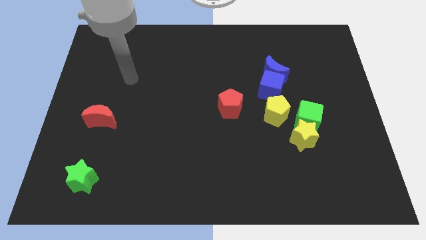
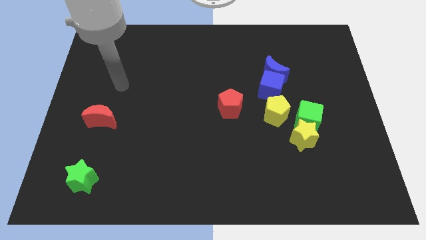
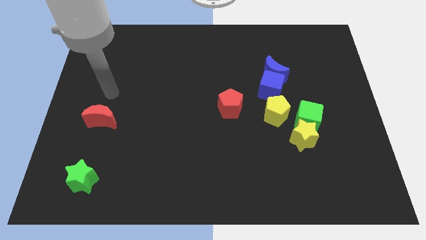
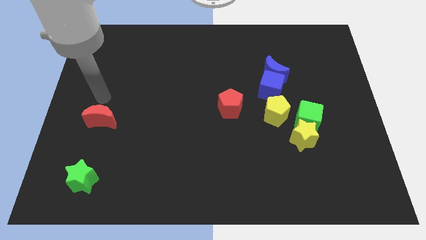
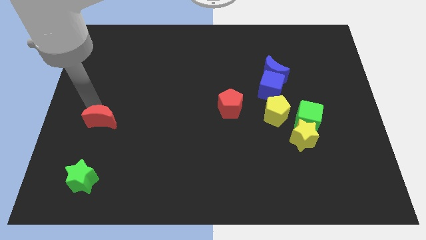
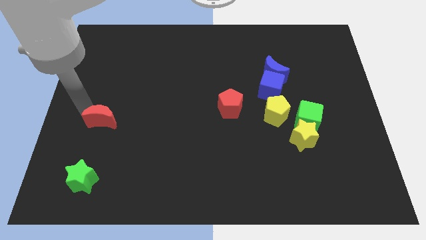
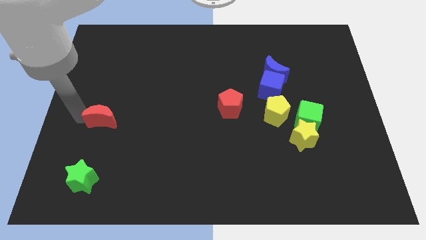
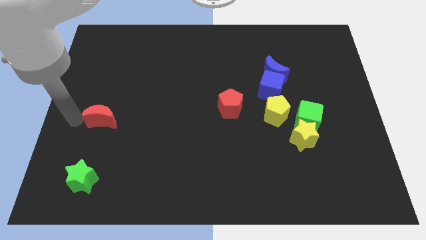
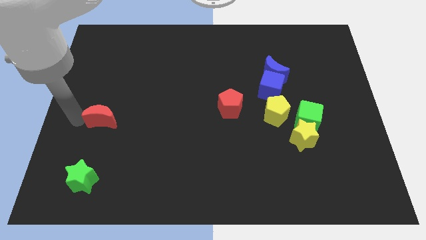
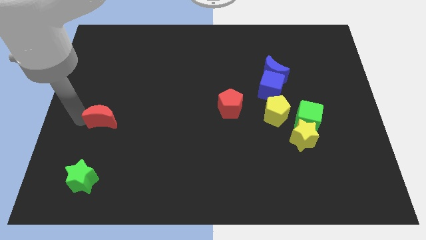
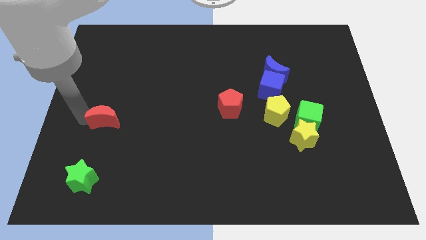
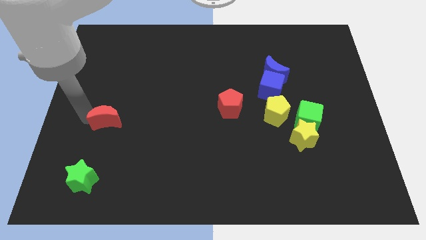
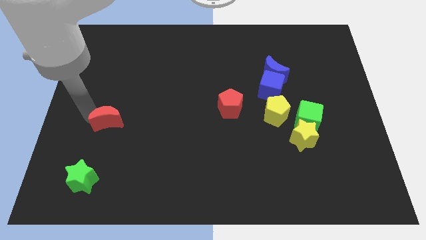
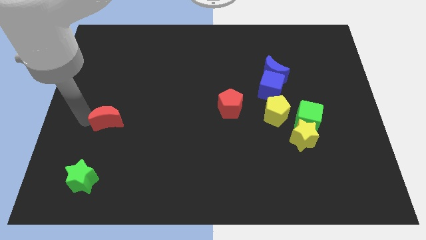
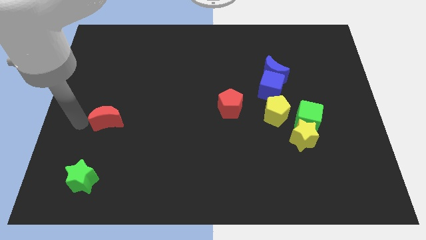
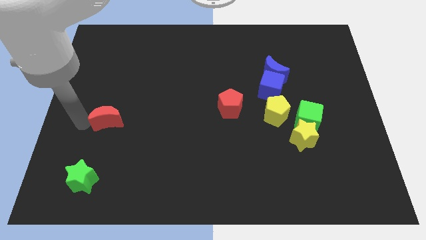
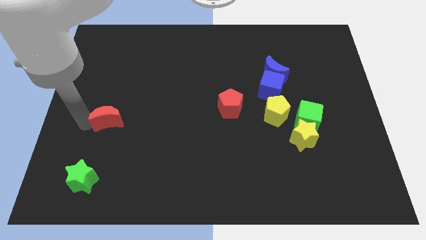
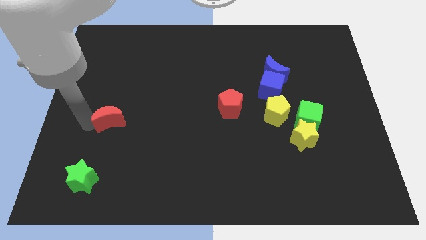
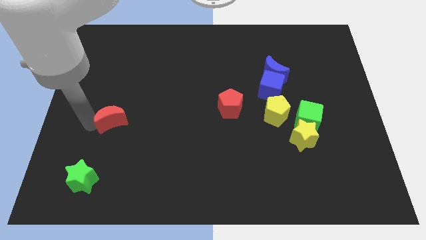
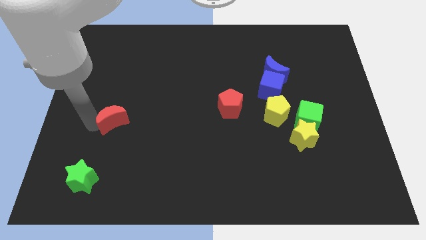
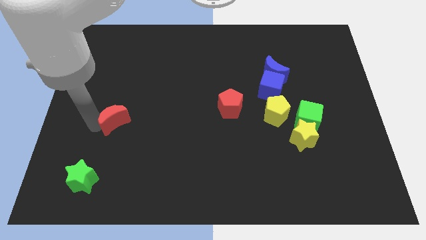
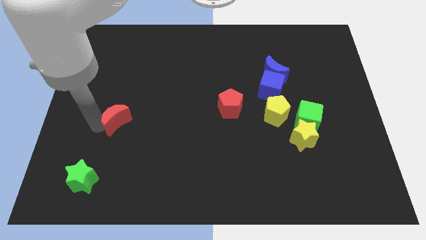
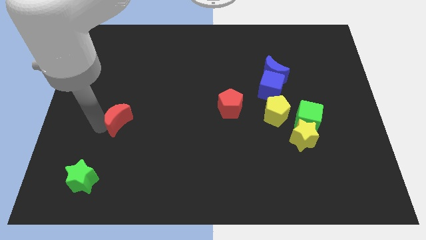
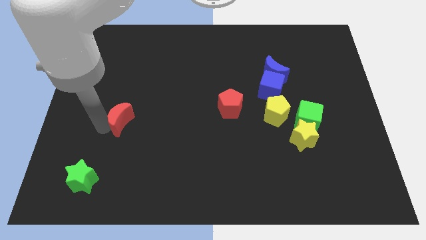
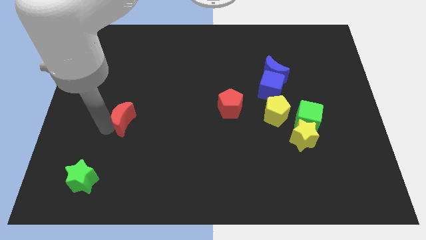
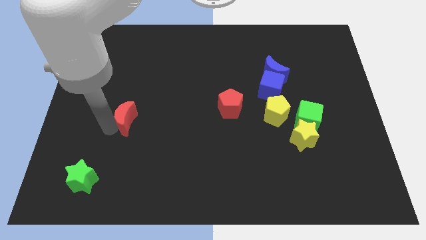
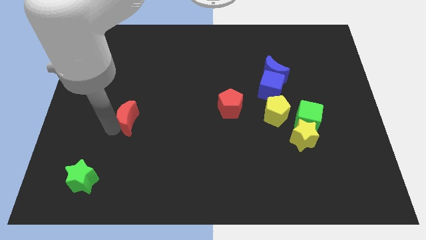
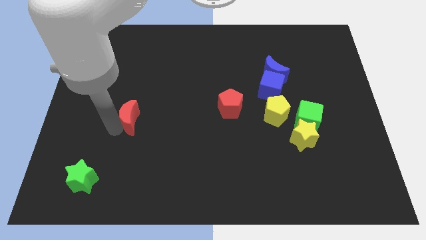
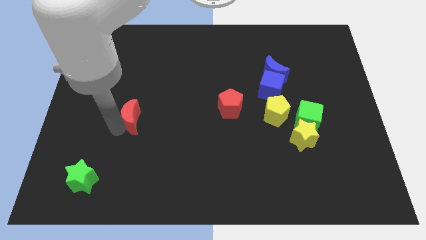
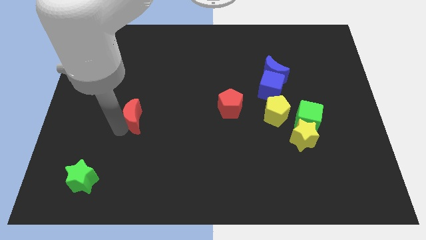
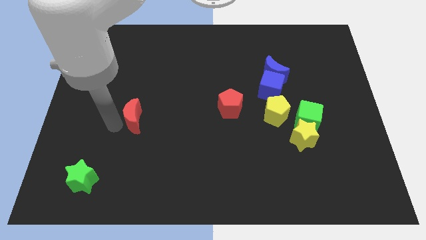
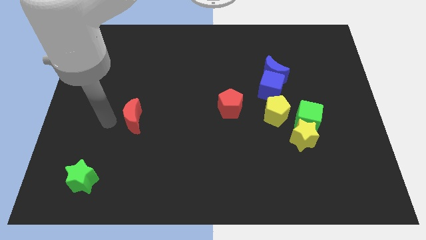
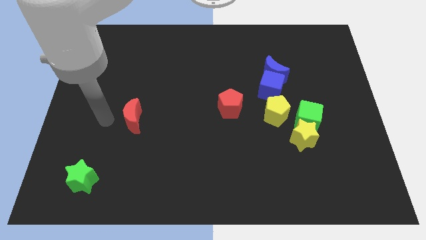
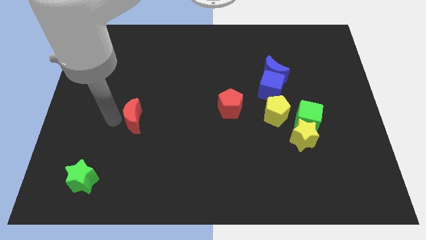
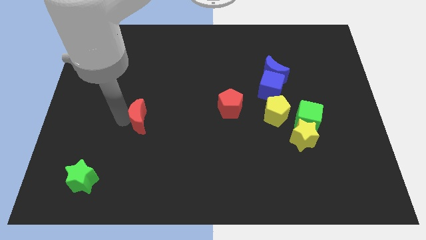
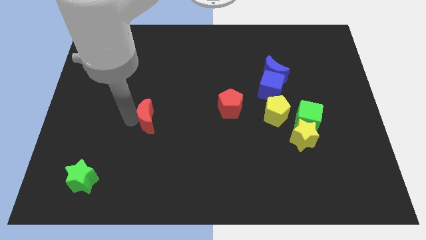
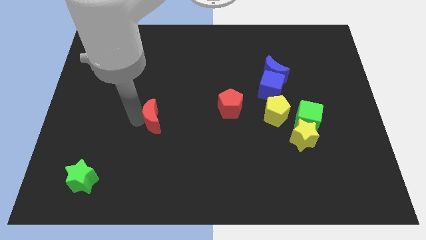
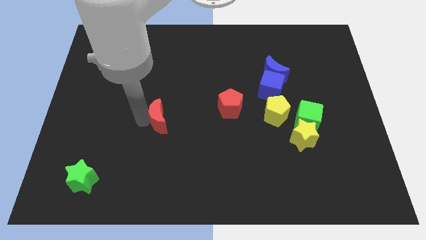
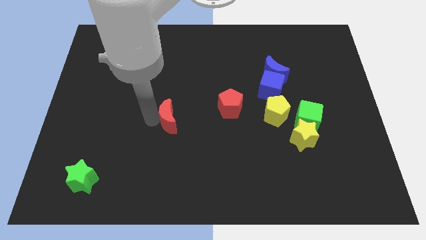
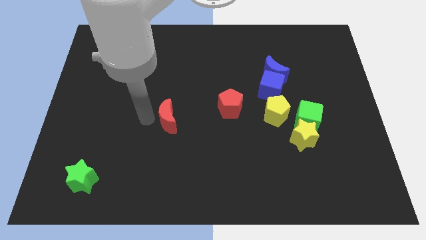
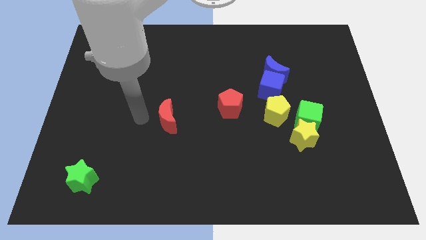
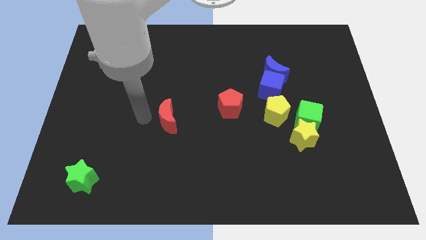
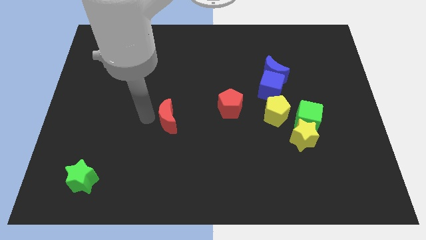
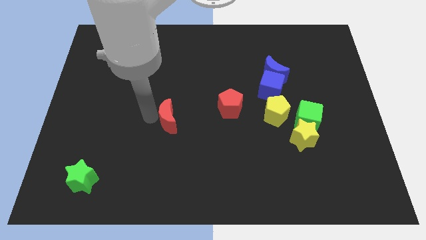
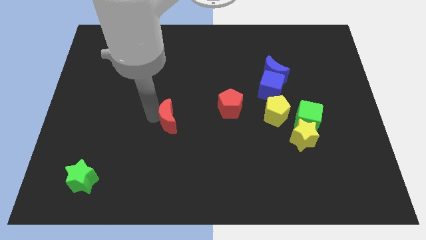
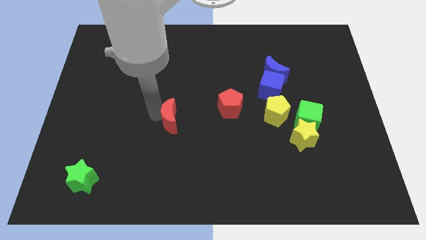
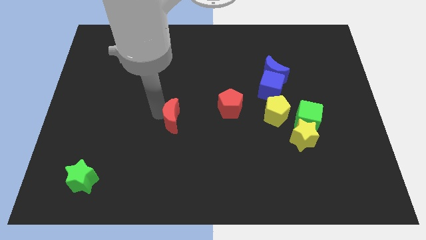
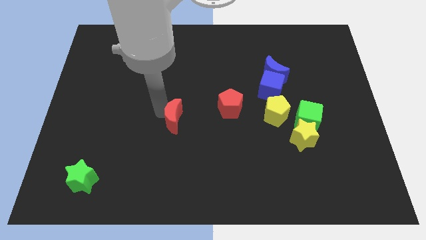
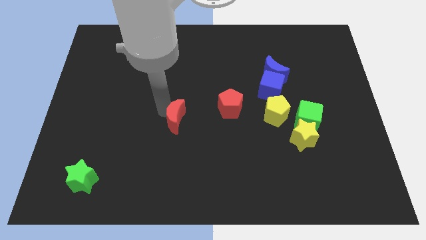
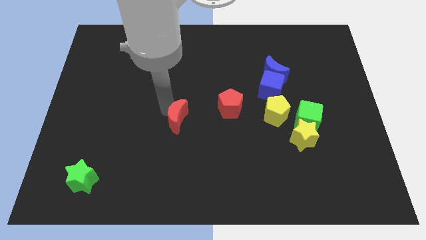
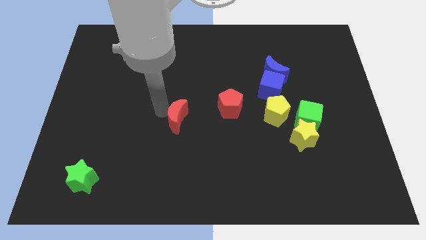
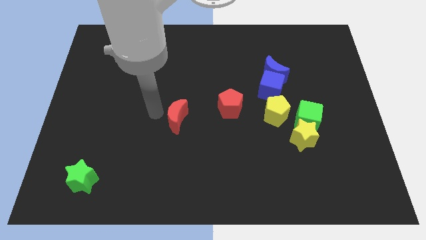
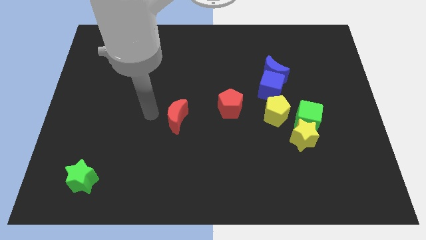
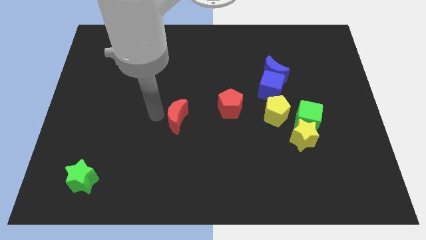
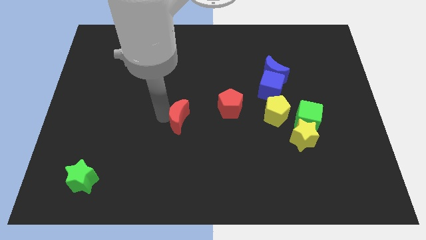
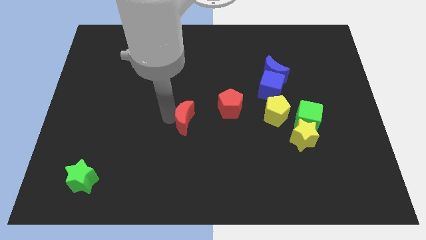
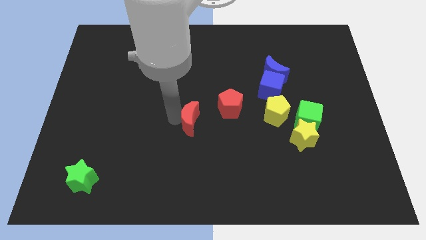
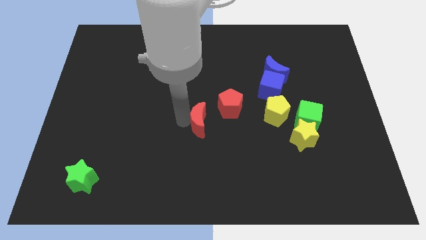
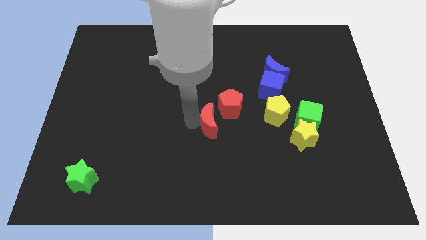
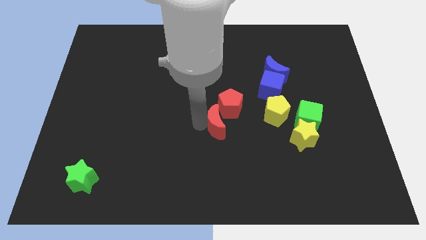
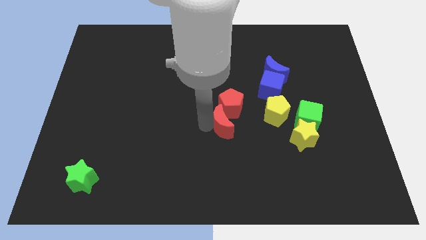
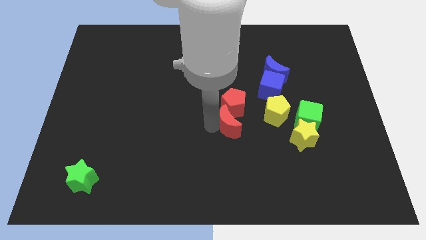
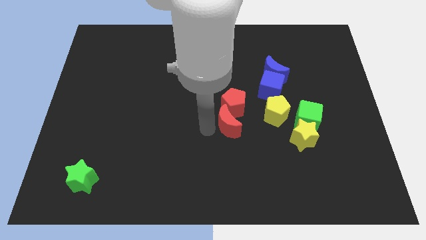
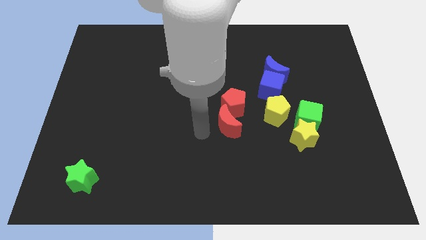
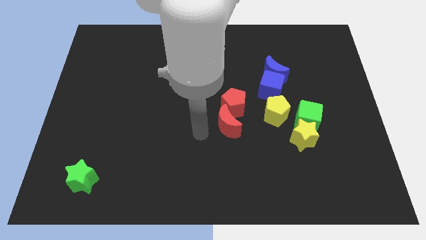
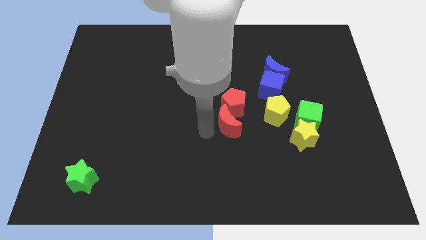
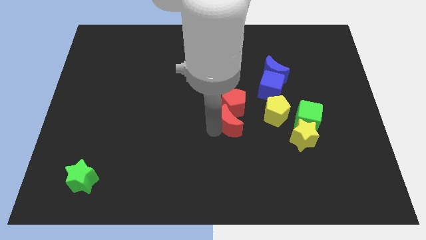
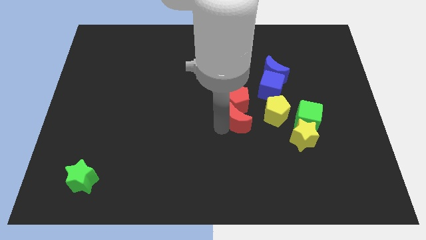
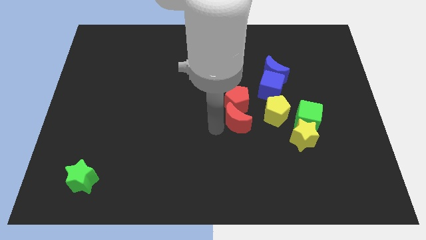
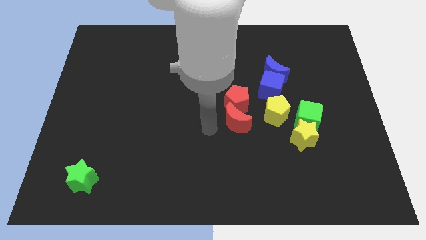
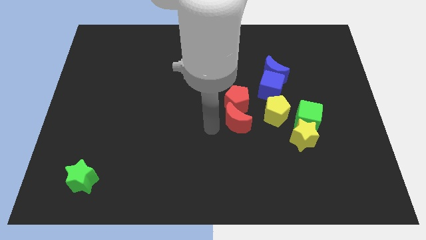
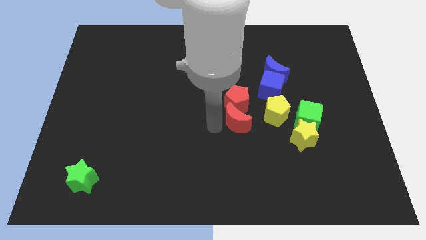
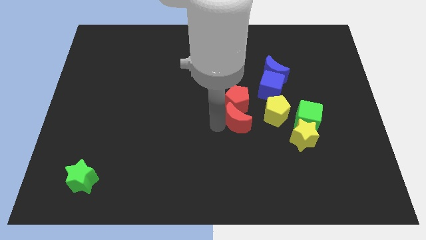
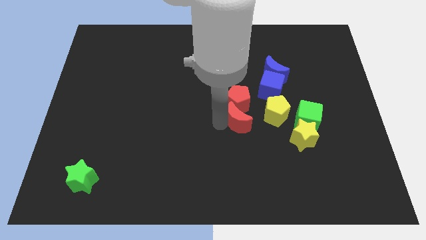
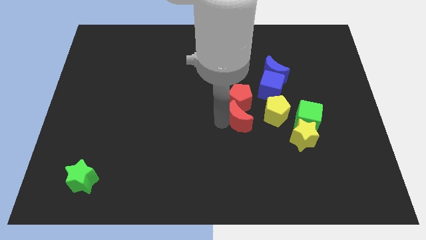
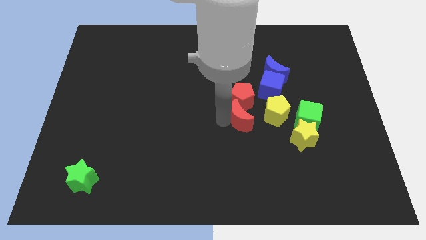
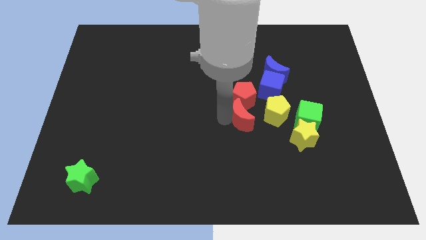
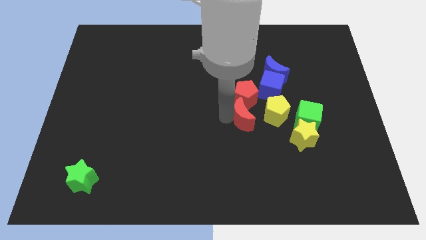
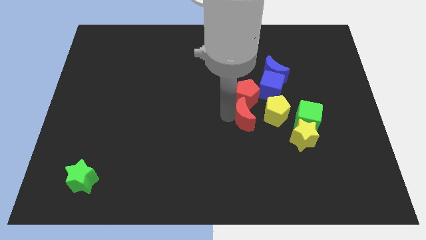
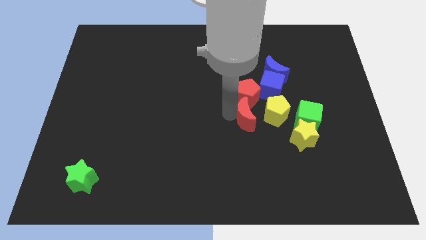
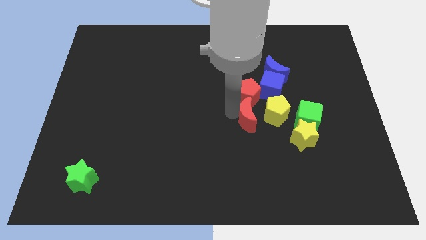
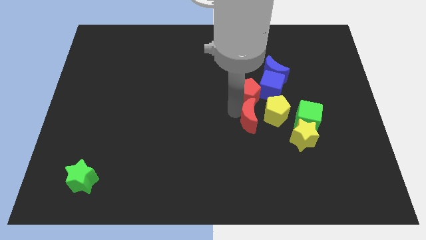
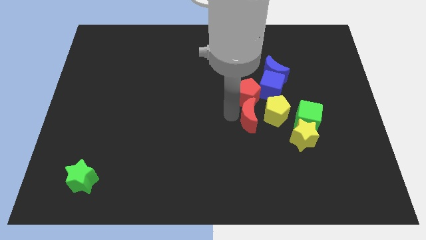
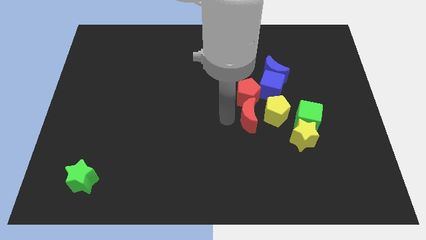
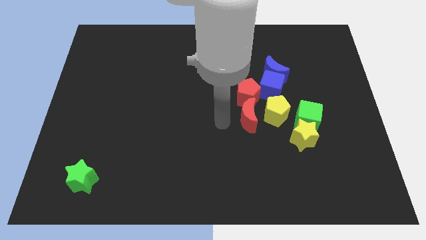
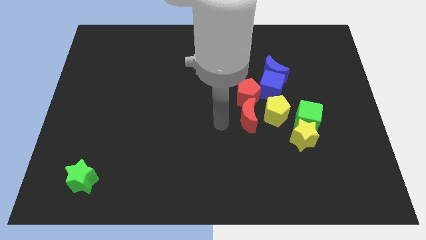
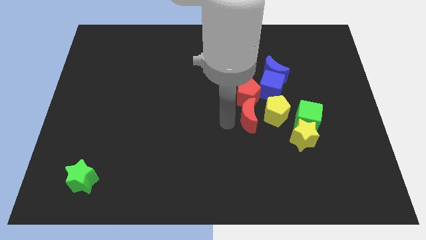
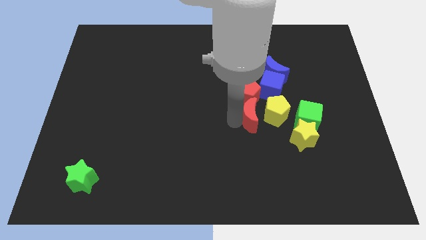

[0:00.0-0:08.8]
put the red moon towards the yellow pentagon
